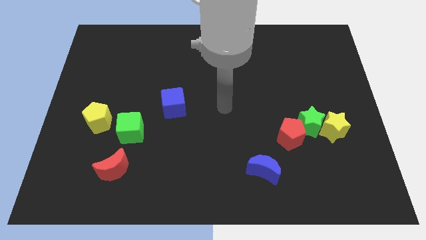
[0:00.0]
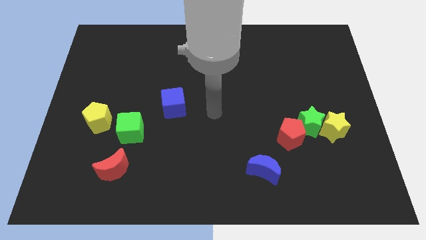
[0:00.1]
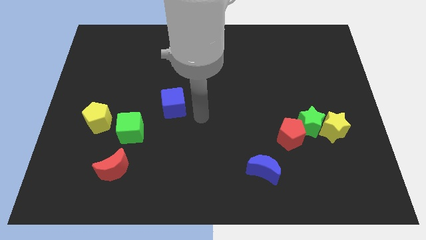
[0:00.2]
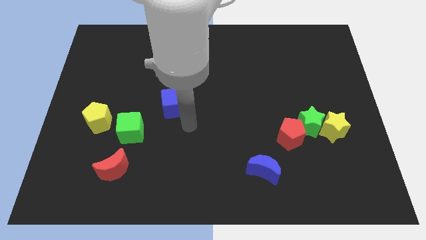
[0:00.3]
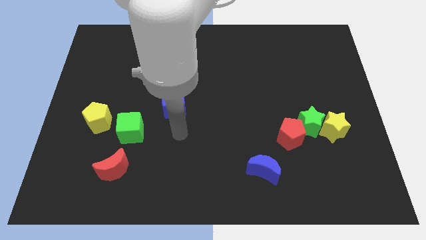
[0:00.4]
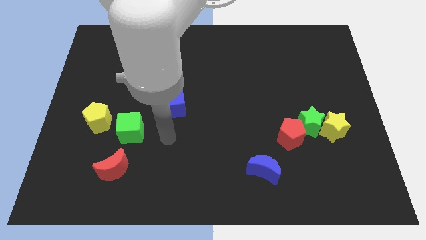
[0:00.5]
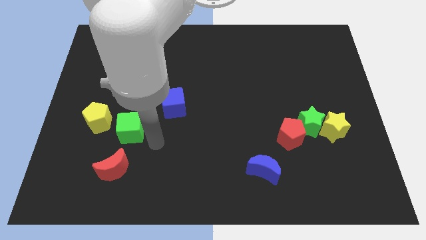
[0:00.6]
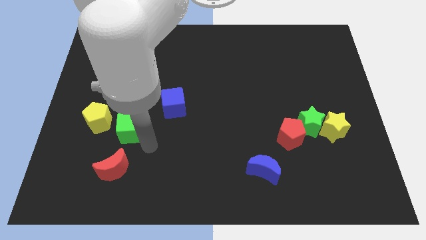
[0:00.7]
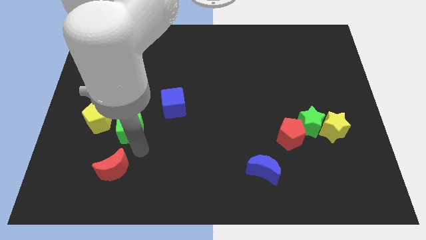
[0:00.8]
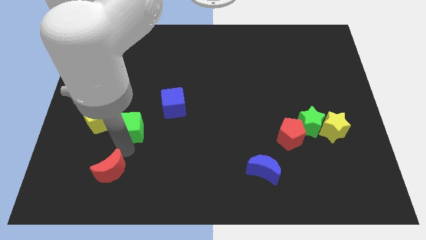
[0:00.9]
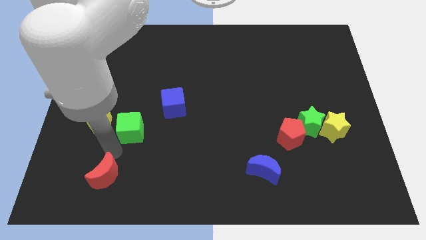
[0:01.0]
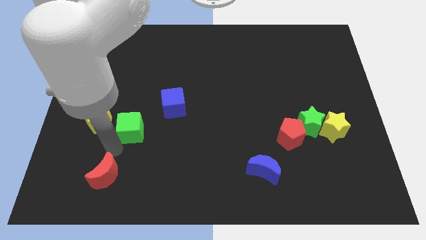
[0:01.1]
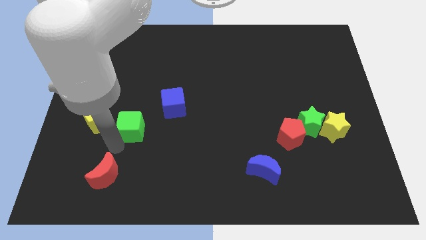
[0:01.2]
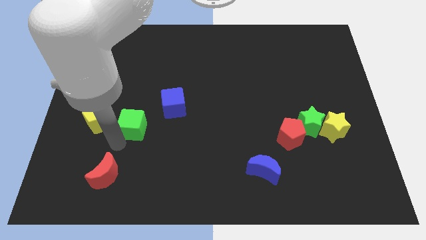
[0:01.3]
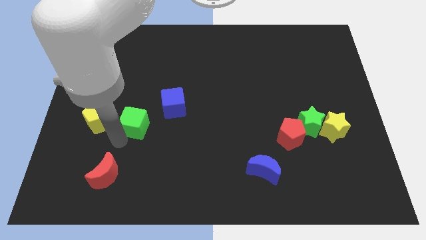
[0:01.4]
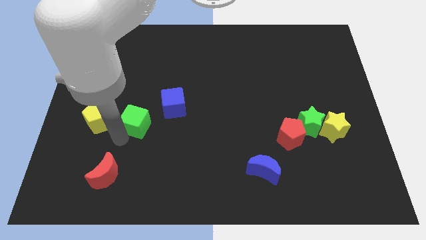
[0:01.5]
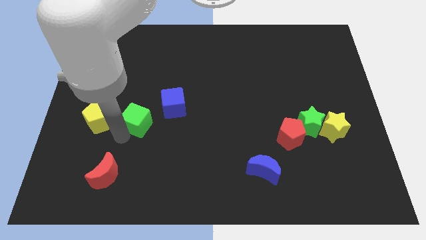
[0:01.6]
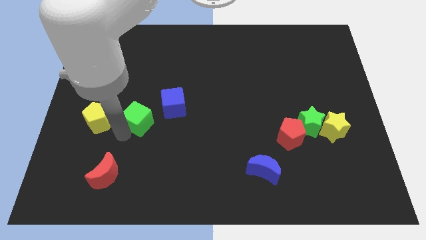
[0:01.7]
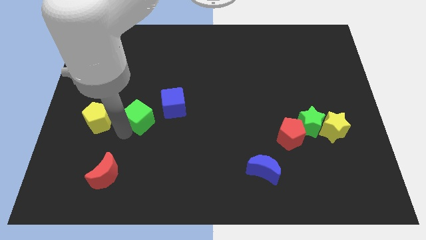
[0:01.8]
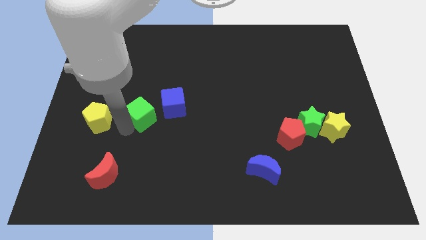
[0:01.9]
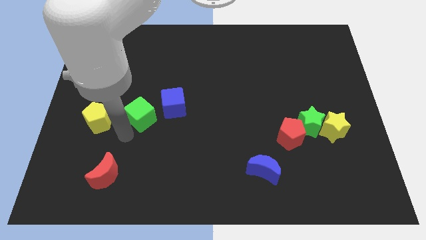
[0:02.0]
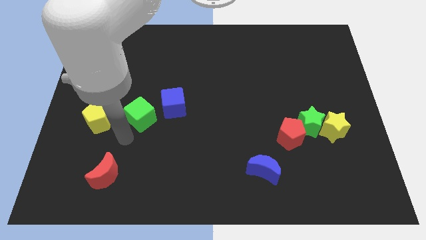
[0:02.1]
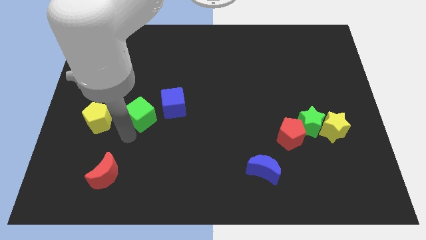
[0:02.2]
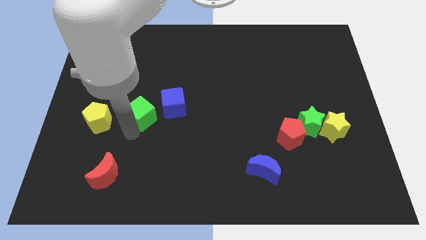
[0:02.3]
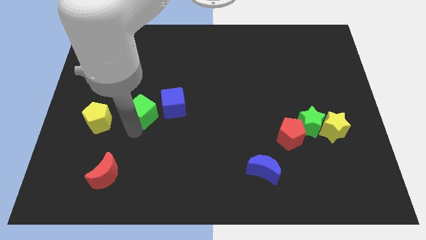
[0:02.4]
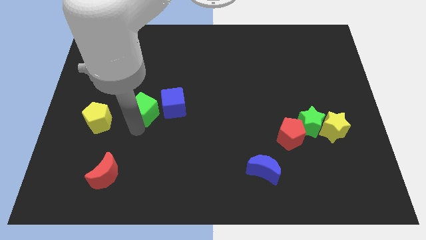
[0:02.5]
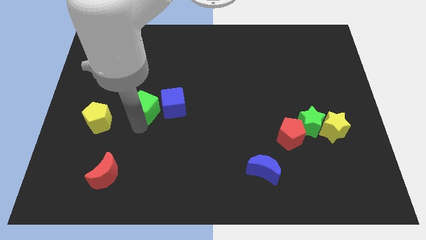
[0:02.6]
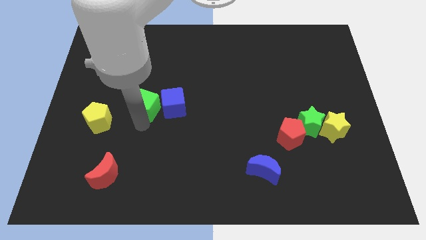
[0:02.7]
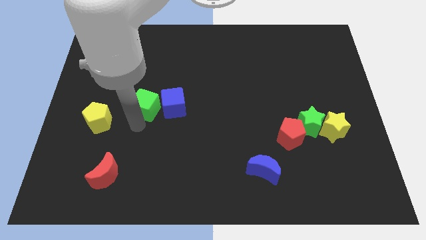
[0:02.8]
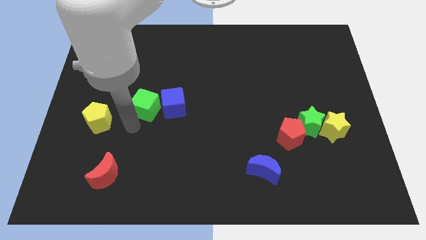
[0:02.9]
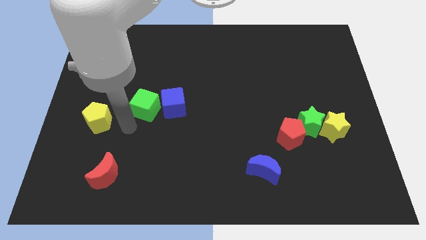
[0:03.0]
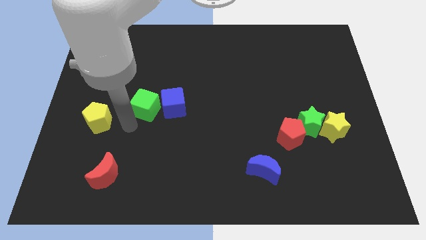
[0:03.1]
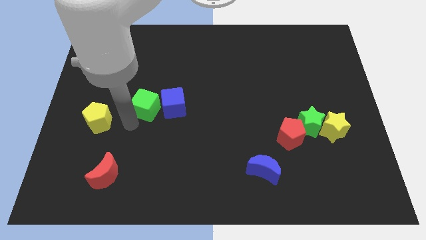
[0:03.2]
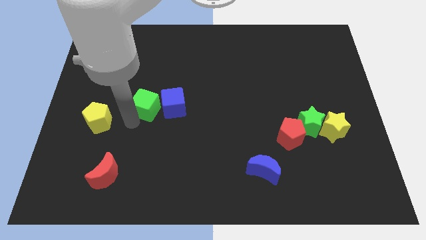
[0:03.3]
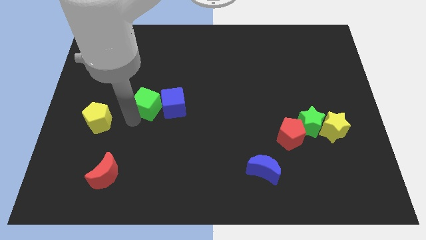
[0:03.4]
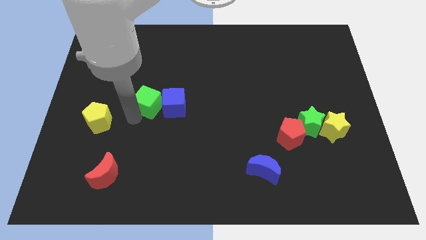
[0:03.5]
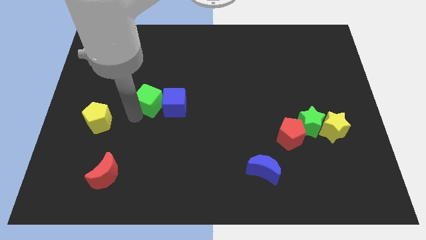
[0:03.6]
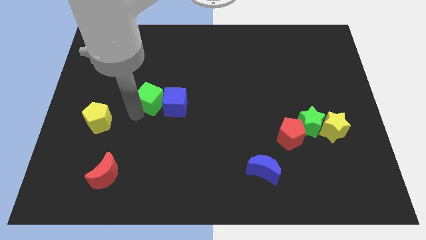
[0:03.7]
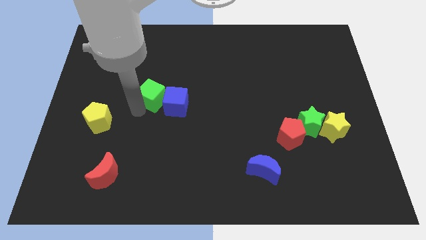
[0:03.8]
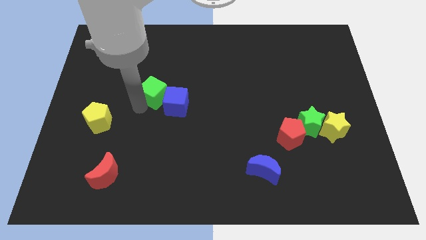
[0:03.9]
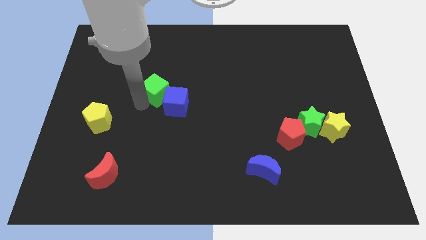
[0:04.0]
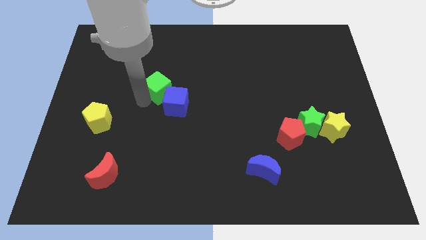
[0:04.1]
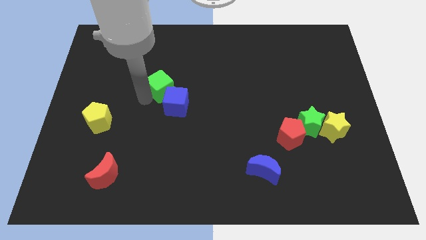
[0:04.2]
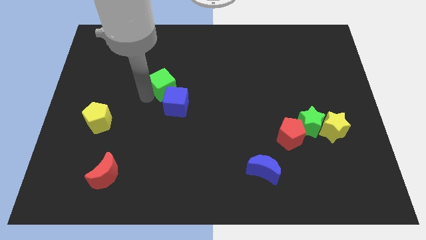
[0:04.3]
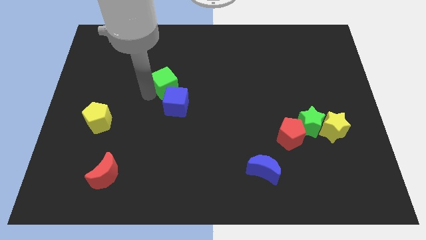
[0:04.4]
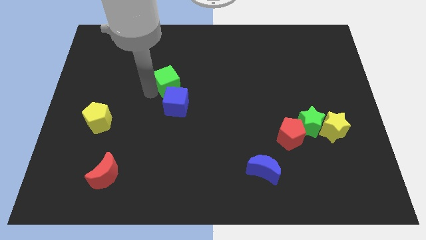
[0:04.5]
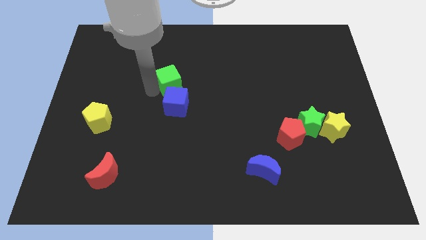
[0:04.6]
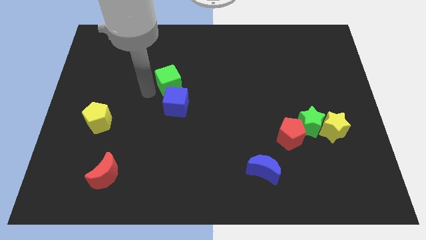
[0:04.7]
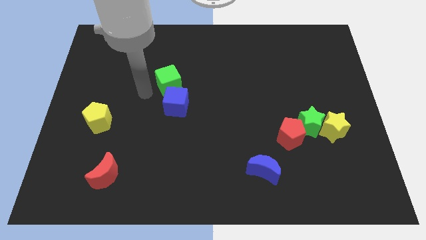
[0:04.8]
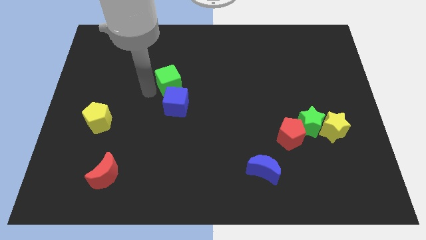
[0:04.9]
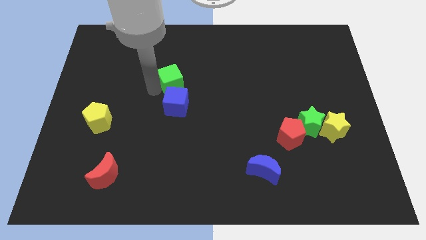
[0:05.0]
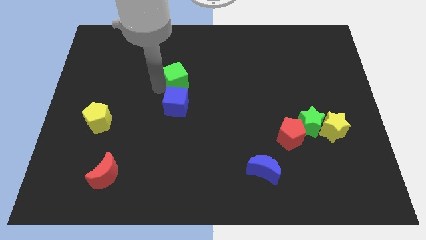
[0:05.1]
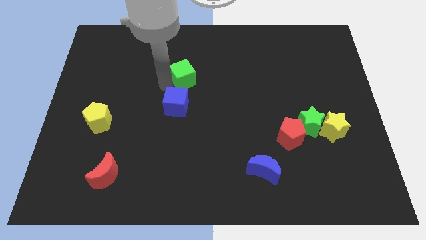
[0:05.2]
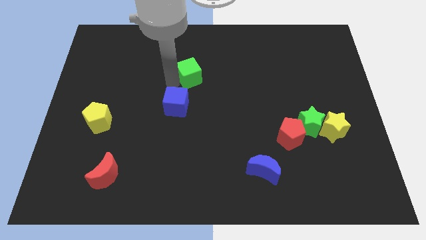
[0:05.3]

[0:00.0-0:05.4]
move the green cube diagonally upwards and to the right

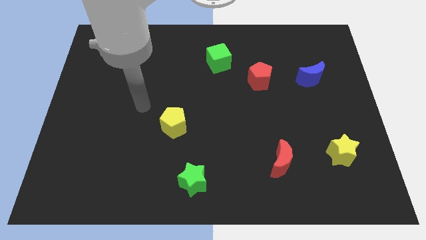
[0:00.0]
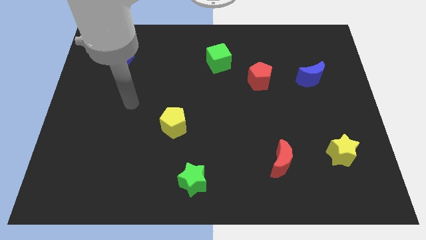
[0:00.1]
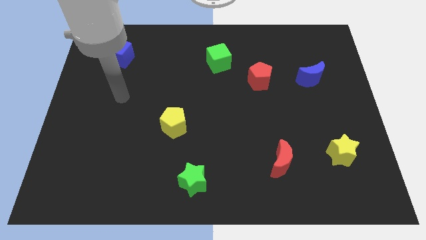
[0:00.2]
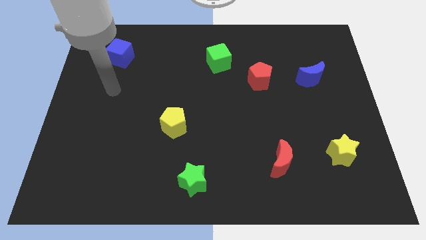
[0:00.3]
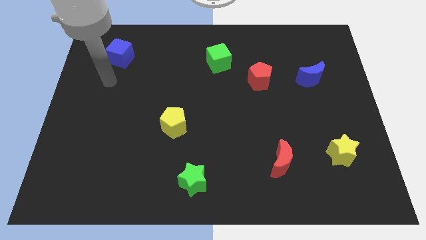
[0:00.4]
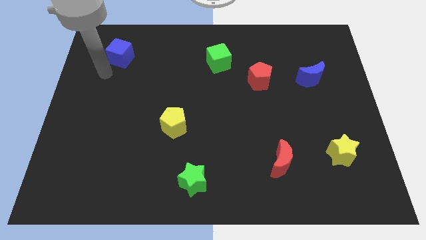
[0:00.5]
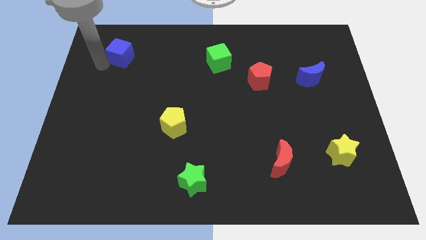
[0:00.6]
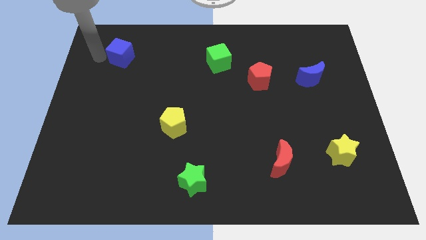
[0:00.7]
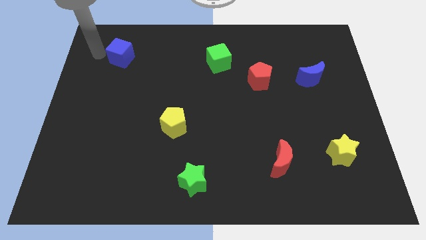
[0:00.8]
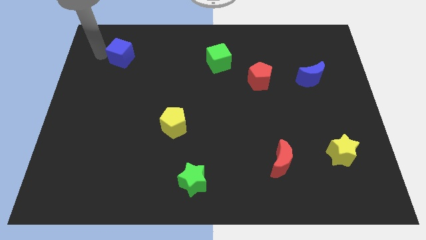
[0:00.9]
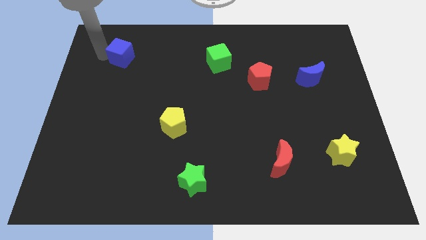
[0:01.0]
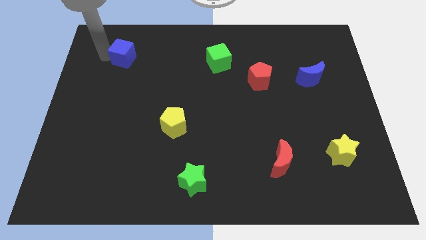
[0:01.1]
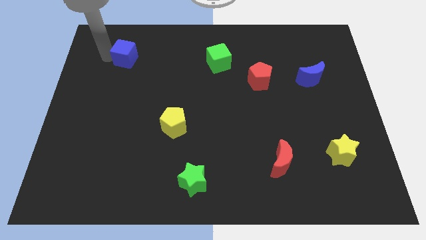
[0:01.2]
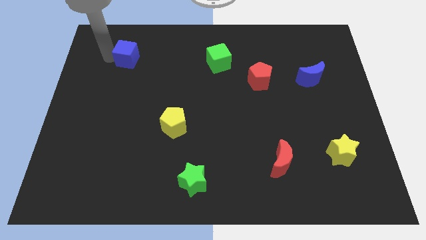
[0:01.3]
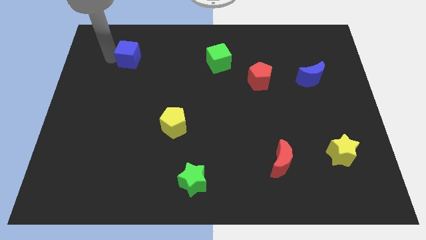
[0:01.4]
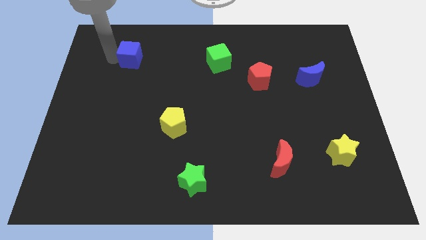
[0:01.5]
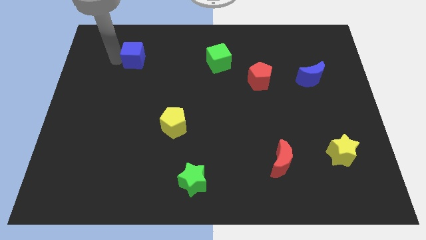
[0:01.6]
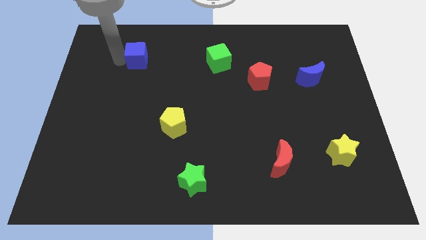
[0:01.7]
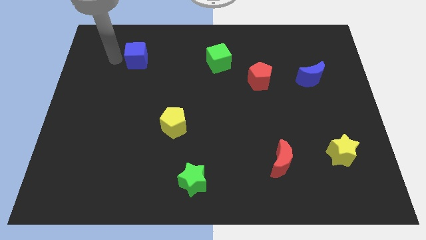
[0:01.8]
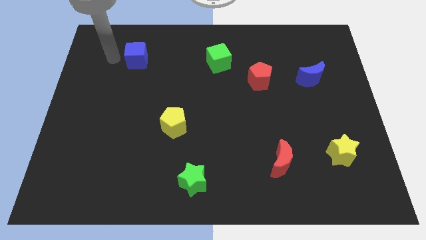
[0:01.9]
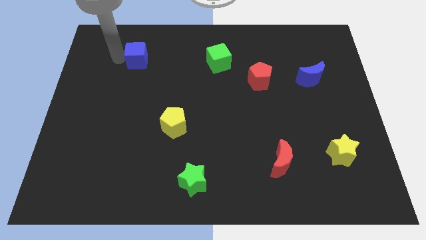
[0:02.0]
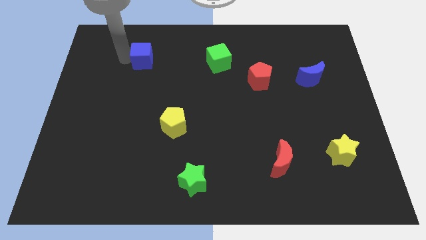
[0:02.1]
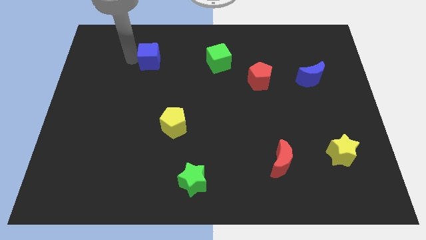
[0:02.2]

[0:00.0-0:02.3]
slightly move the blue cube to the right

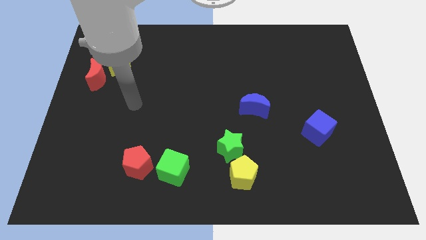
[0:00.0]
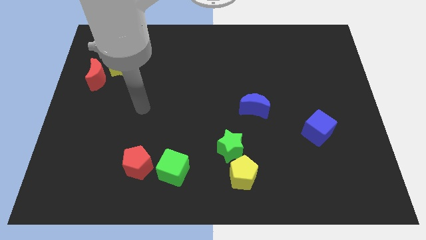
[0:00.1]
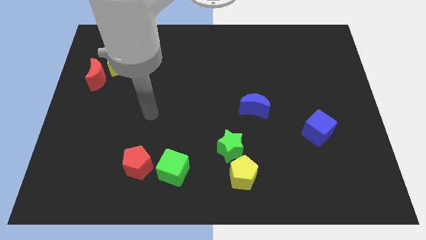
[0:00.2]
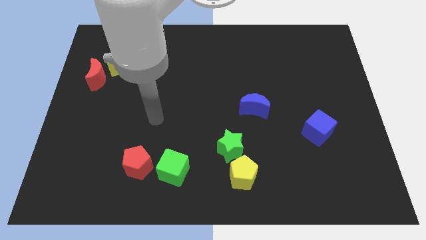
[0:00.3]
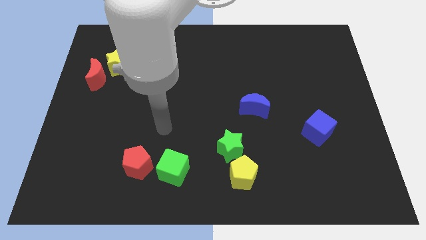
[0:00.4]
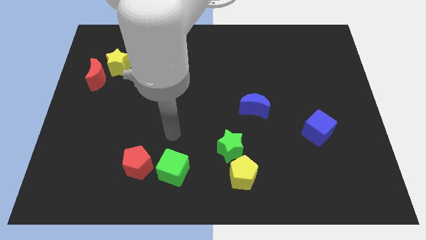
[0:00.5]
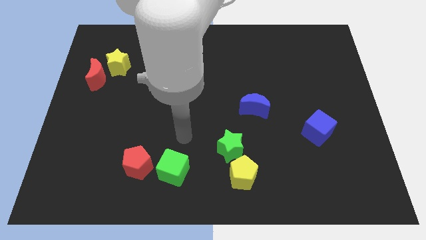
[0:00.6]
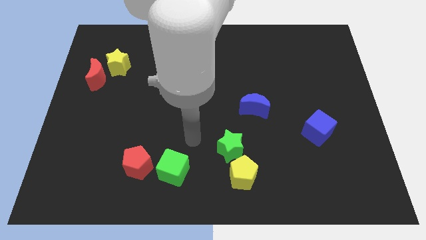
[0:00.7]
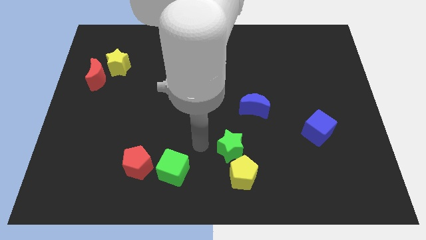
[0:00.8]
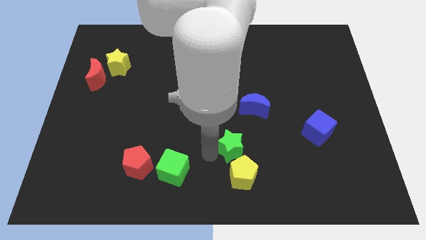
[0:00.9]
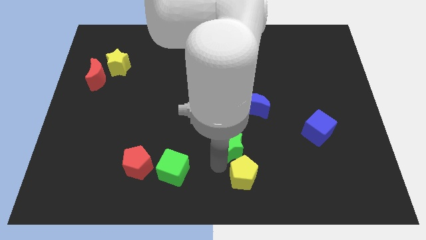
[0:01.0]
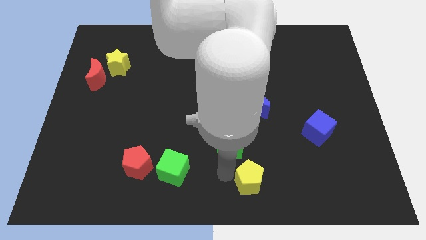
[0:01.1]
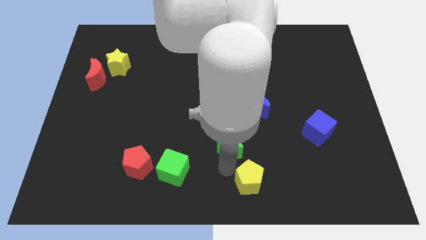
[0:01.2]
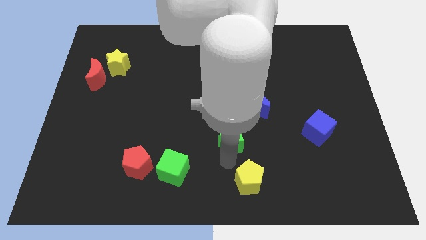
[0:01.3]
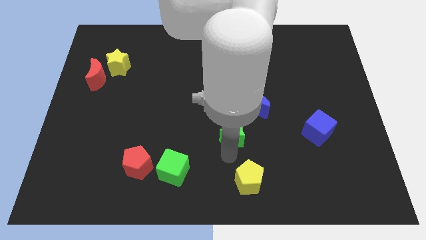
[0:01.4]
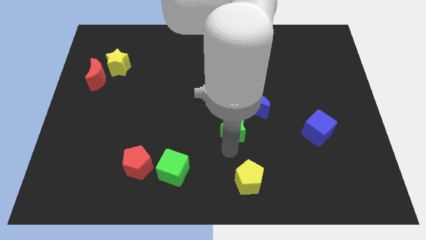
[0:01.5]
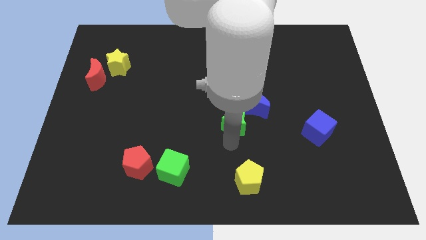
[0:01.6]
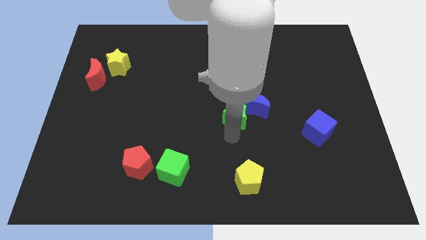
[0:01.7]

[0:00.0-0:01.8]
move the green star a bit up
